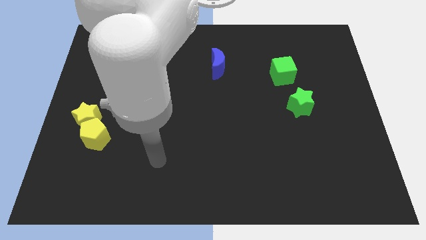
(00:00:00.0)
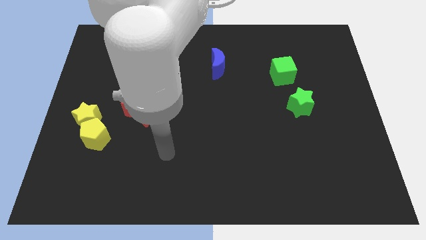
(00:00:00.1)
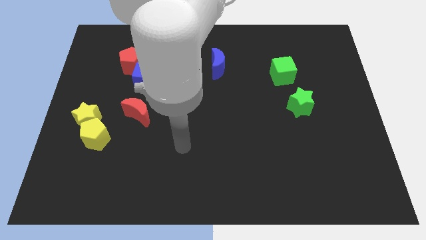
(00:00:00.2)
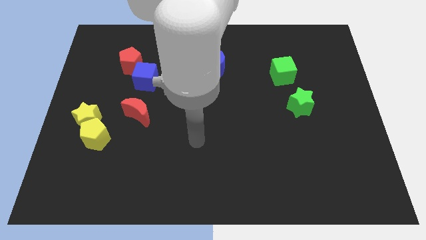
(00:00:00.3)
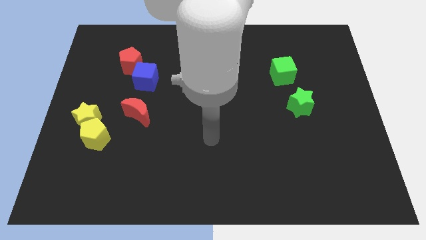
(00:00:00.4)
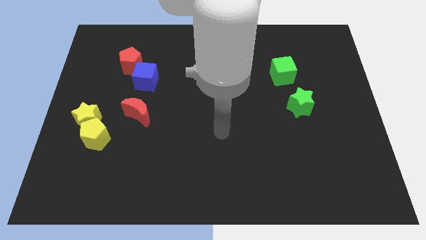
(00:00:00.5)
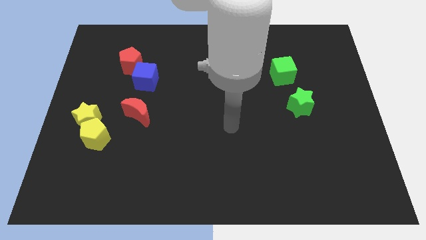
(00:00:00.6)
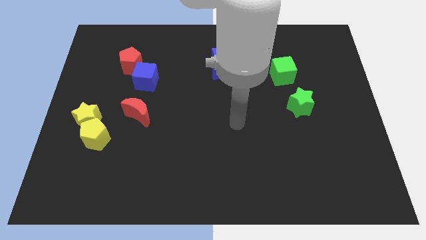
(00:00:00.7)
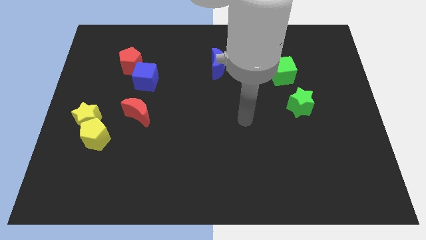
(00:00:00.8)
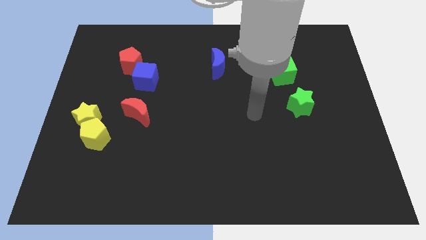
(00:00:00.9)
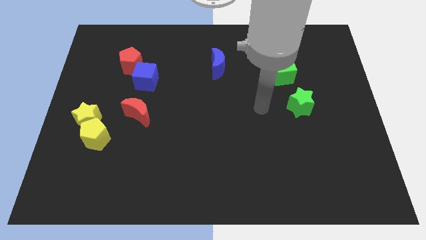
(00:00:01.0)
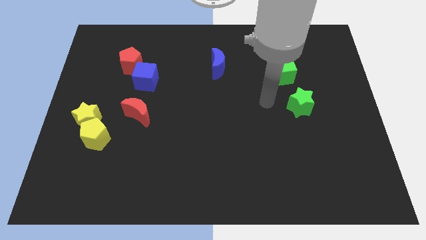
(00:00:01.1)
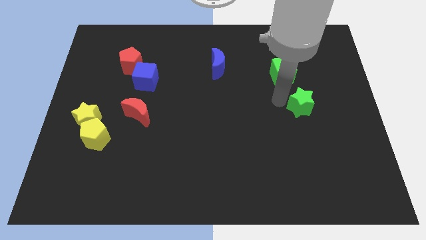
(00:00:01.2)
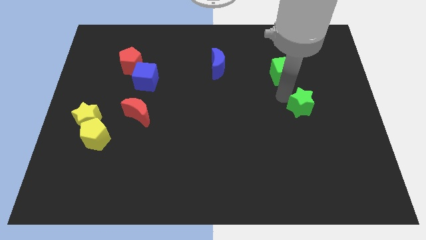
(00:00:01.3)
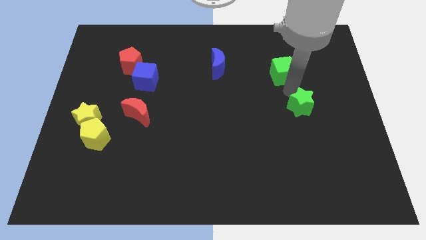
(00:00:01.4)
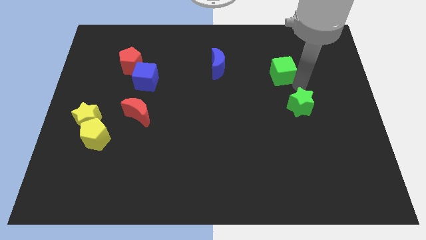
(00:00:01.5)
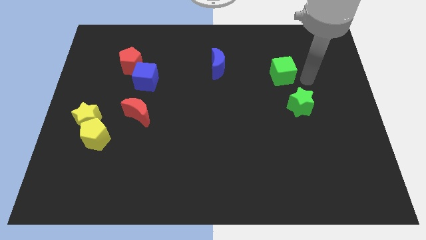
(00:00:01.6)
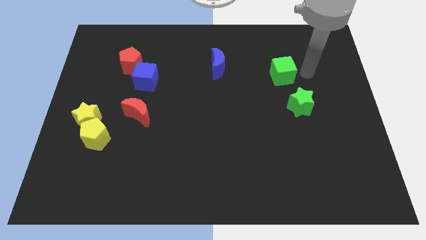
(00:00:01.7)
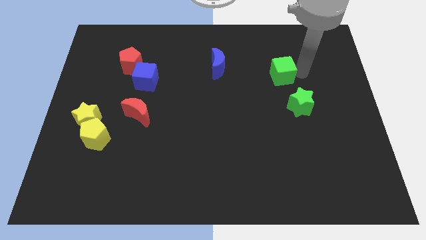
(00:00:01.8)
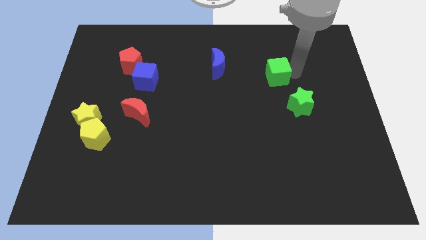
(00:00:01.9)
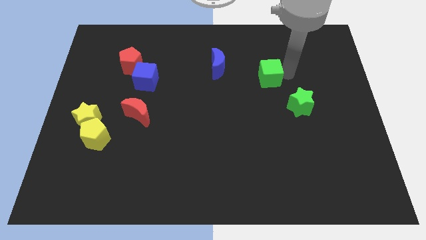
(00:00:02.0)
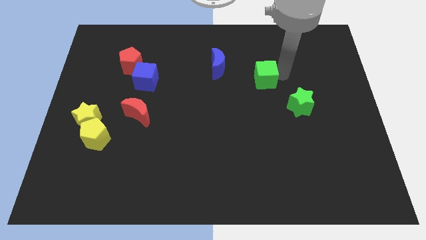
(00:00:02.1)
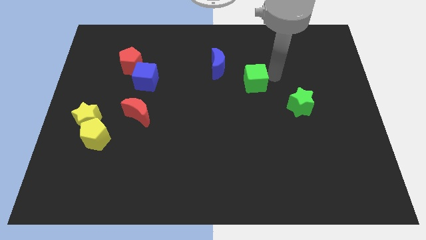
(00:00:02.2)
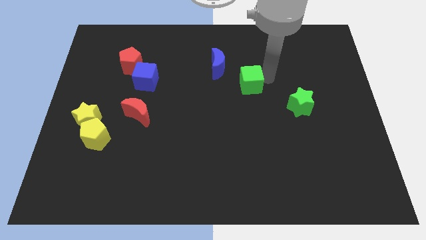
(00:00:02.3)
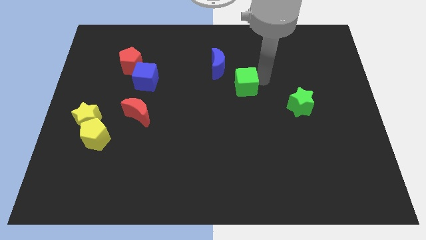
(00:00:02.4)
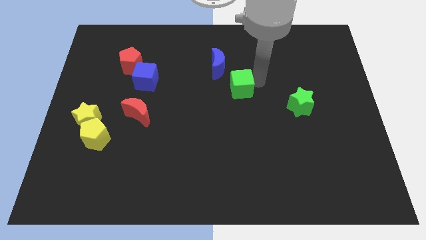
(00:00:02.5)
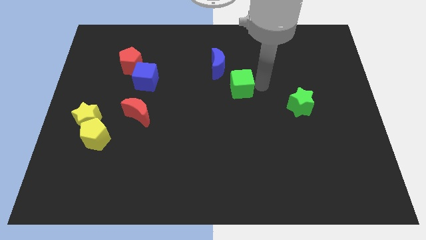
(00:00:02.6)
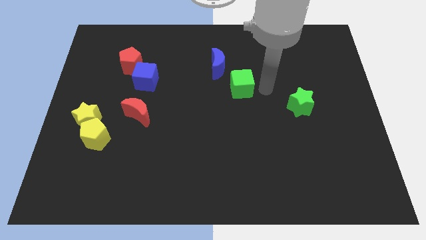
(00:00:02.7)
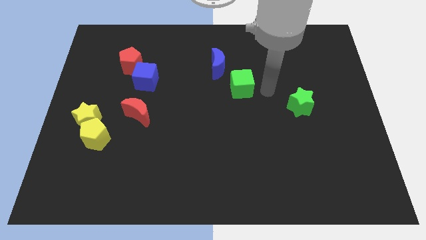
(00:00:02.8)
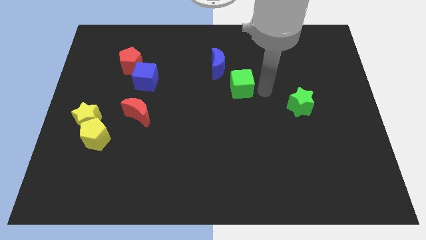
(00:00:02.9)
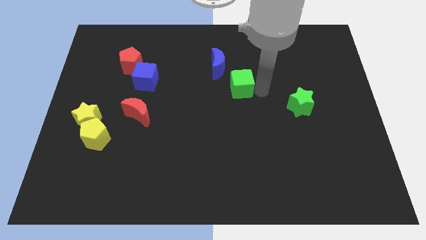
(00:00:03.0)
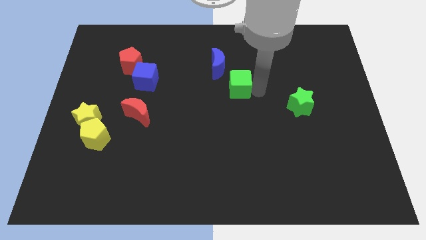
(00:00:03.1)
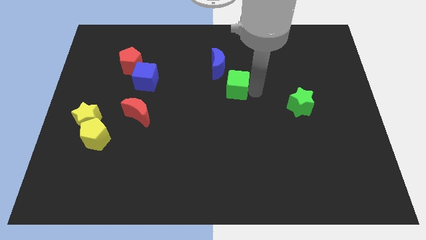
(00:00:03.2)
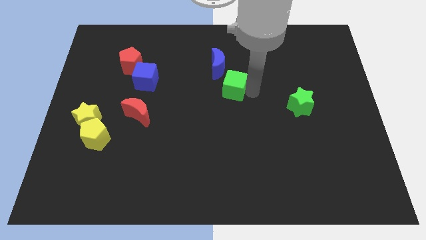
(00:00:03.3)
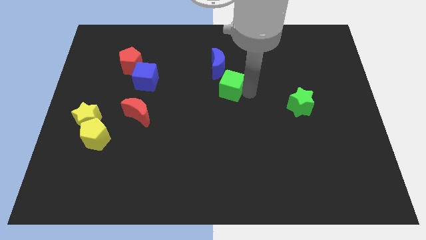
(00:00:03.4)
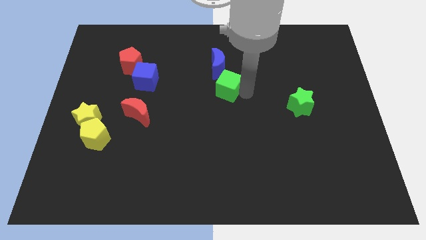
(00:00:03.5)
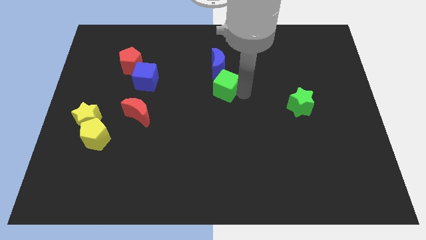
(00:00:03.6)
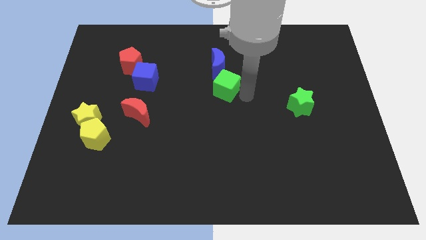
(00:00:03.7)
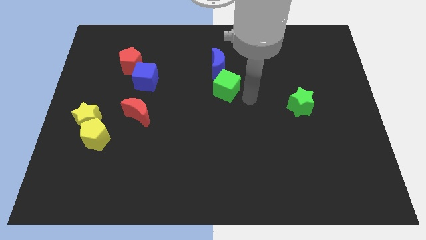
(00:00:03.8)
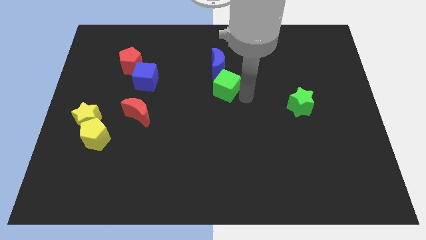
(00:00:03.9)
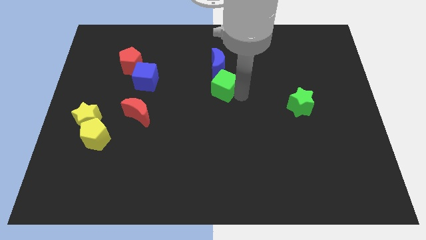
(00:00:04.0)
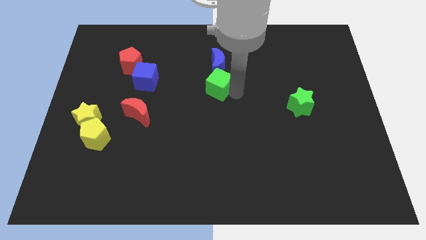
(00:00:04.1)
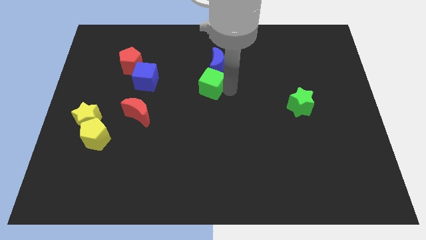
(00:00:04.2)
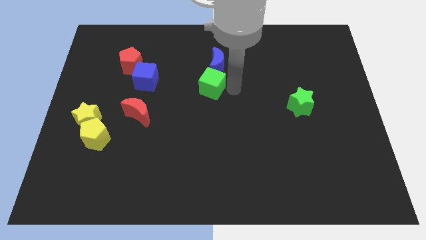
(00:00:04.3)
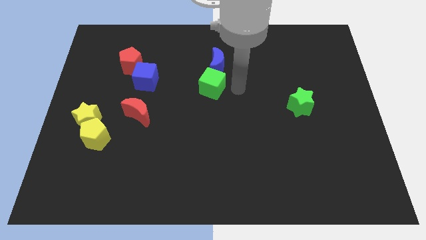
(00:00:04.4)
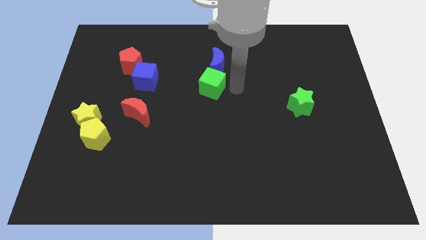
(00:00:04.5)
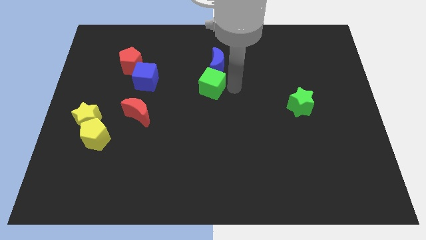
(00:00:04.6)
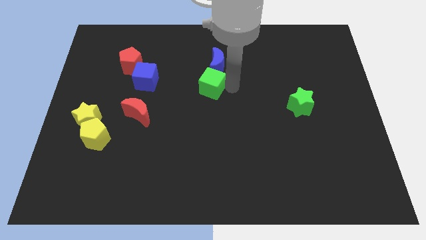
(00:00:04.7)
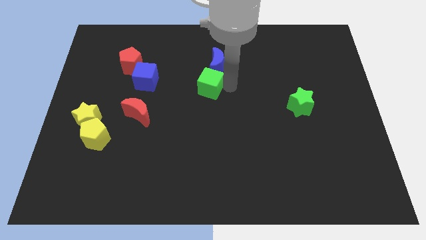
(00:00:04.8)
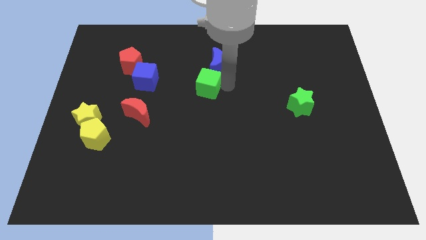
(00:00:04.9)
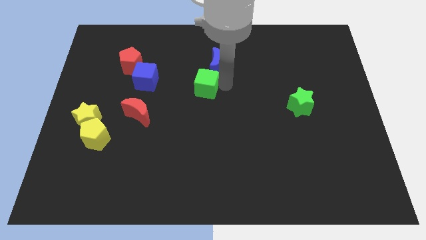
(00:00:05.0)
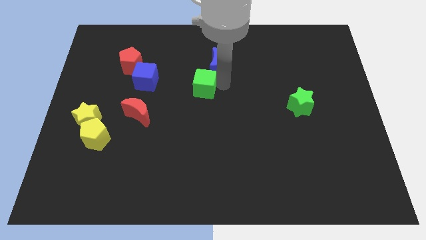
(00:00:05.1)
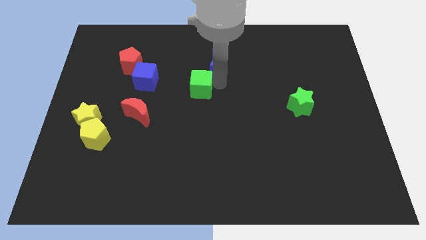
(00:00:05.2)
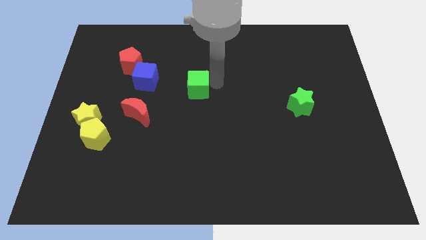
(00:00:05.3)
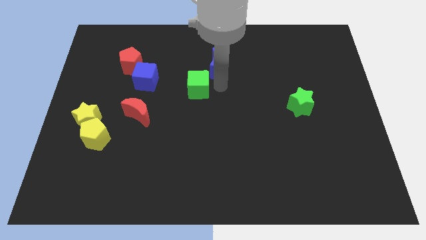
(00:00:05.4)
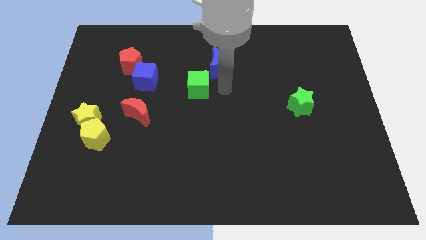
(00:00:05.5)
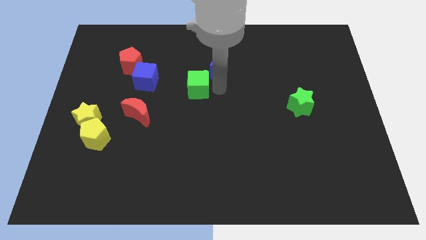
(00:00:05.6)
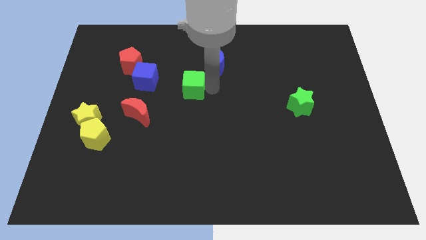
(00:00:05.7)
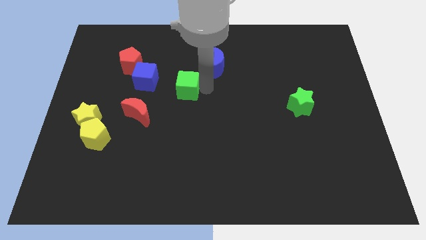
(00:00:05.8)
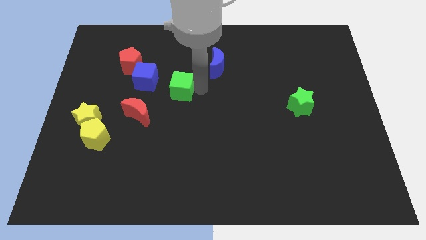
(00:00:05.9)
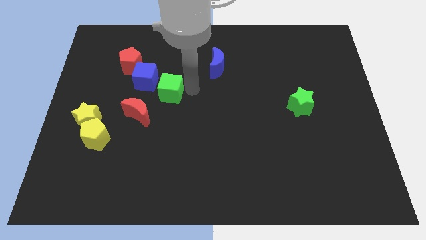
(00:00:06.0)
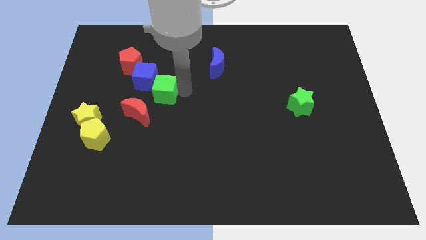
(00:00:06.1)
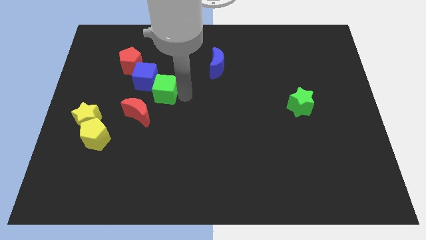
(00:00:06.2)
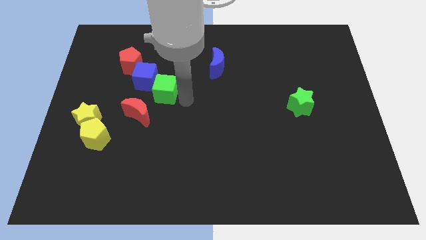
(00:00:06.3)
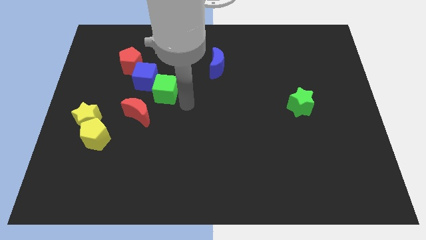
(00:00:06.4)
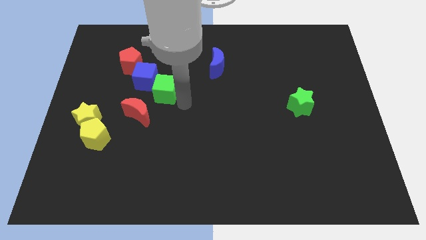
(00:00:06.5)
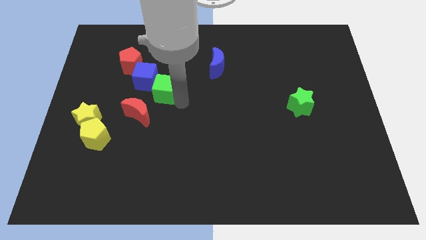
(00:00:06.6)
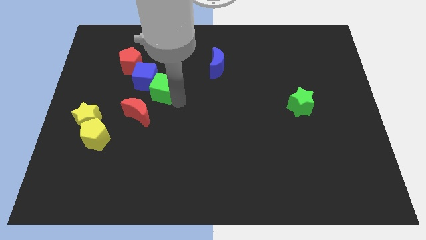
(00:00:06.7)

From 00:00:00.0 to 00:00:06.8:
move the green cube towards the blue cube

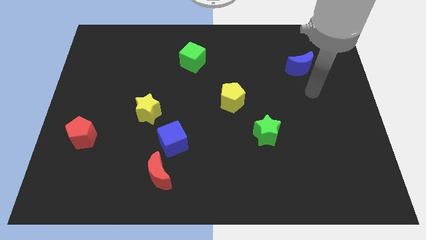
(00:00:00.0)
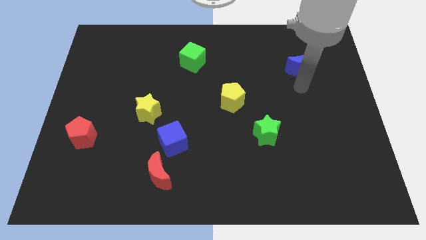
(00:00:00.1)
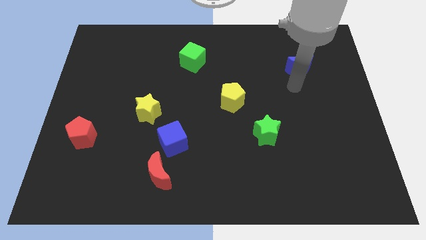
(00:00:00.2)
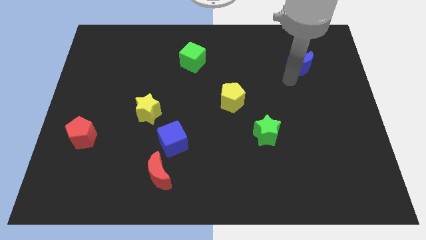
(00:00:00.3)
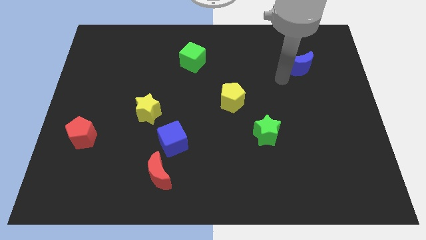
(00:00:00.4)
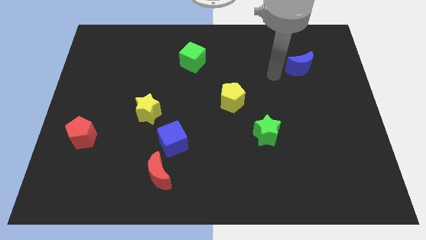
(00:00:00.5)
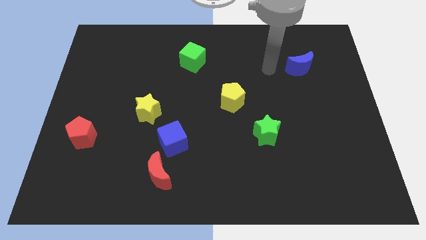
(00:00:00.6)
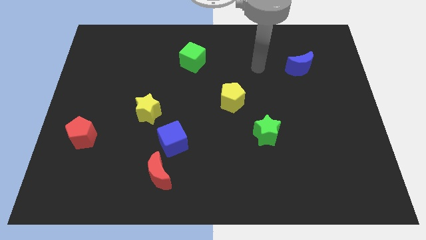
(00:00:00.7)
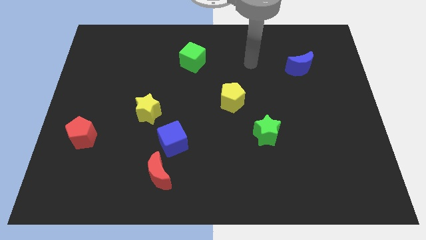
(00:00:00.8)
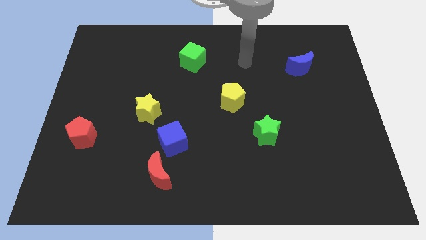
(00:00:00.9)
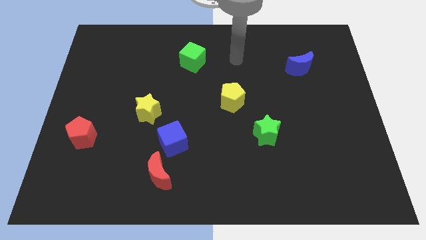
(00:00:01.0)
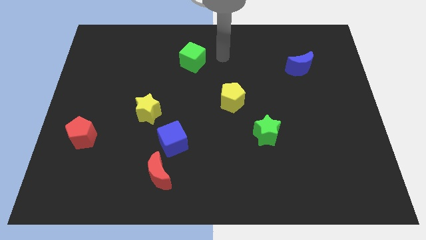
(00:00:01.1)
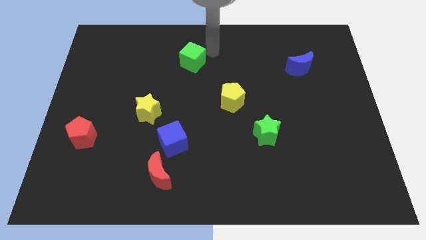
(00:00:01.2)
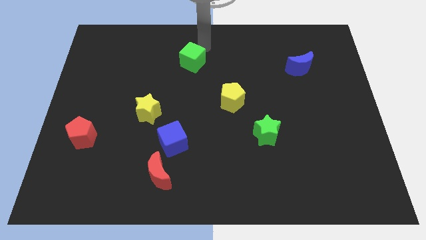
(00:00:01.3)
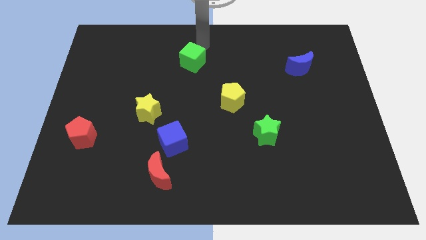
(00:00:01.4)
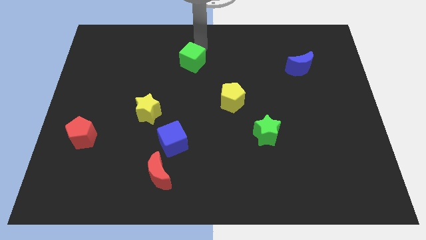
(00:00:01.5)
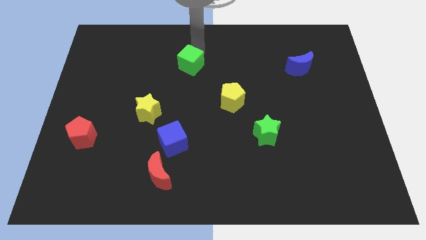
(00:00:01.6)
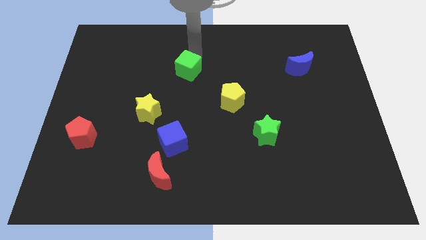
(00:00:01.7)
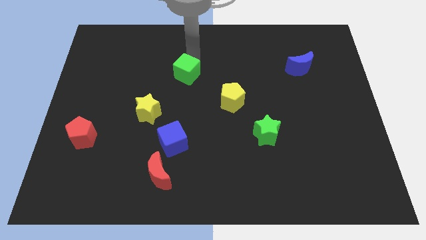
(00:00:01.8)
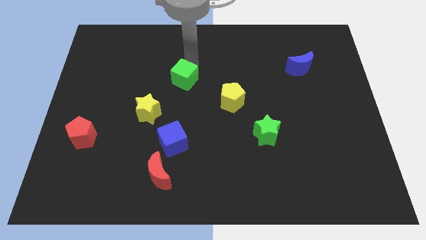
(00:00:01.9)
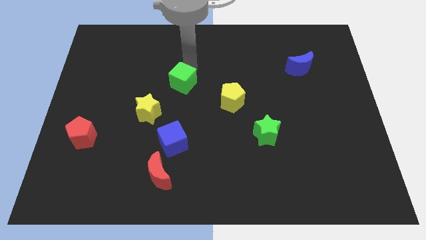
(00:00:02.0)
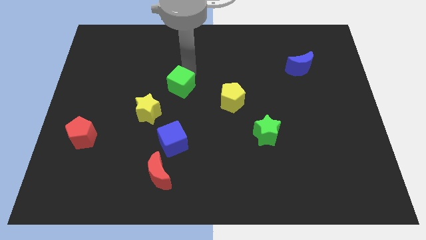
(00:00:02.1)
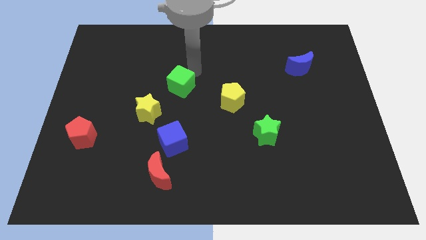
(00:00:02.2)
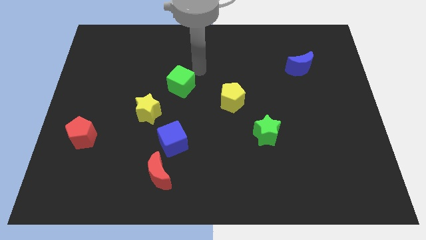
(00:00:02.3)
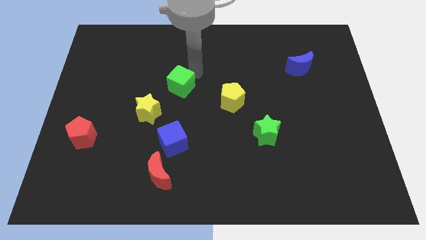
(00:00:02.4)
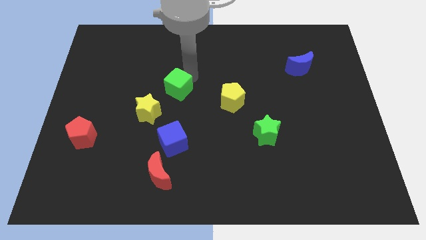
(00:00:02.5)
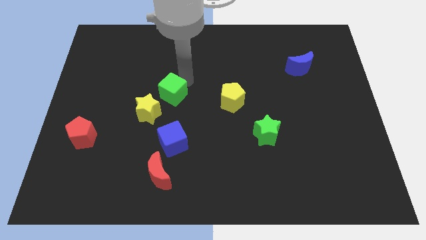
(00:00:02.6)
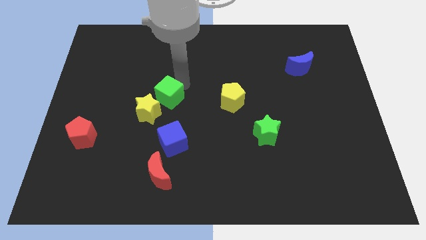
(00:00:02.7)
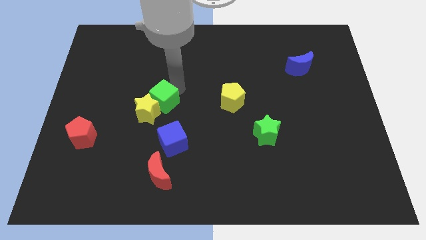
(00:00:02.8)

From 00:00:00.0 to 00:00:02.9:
slide the green cube close to the yellow star
